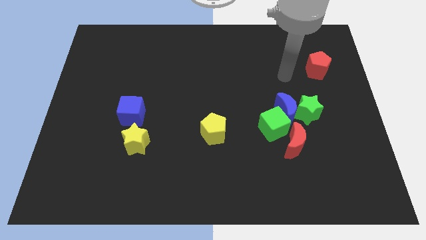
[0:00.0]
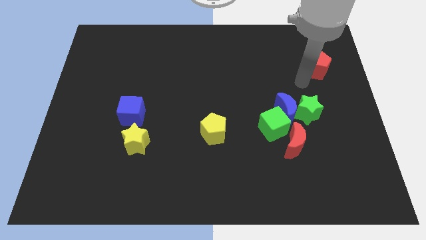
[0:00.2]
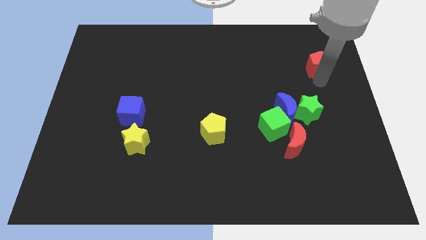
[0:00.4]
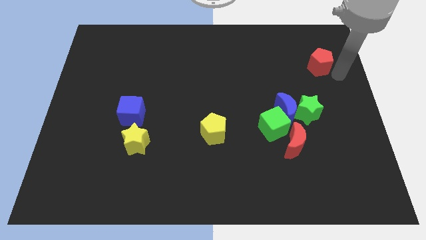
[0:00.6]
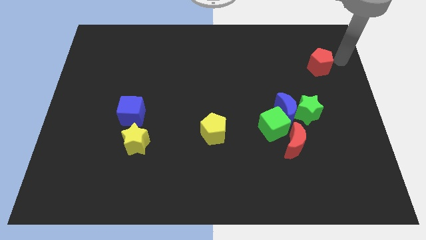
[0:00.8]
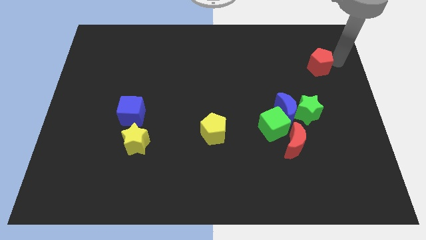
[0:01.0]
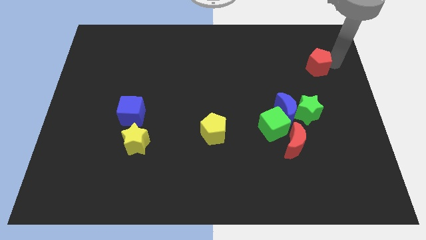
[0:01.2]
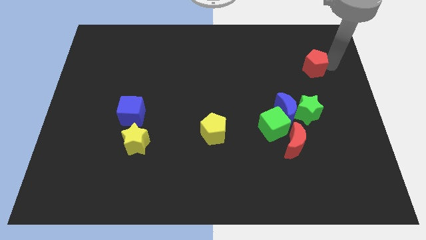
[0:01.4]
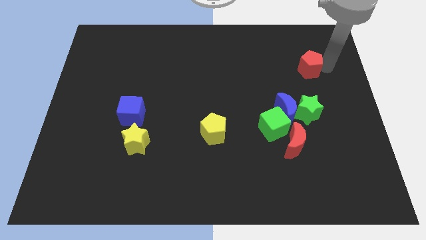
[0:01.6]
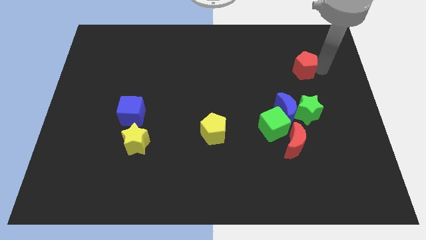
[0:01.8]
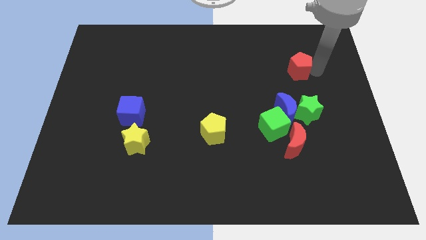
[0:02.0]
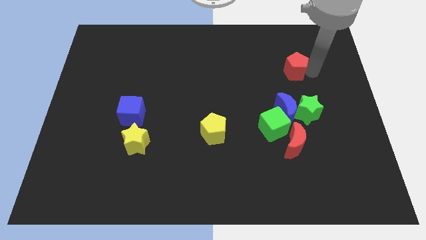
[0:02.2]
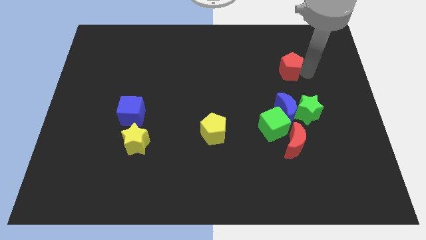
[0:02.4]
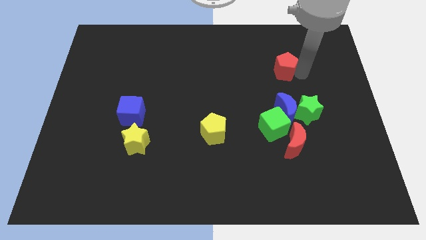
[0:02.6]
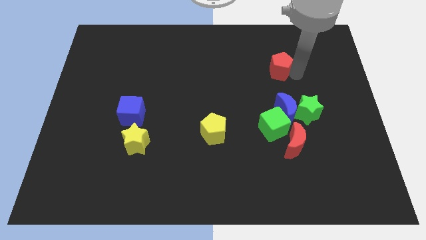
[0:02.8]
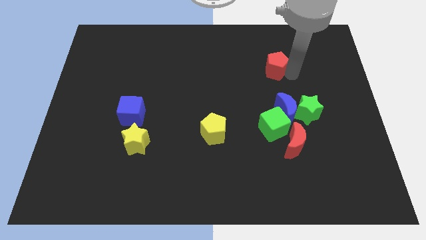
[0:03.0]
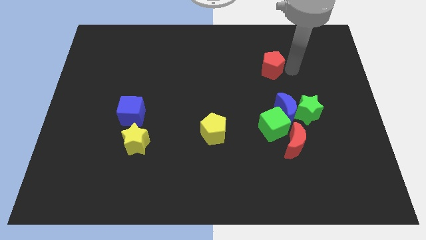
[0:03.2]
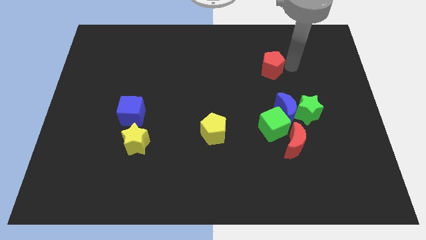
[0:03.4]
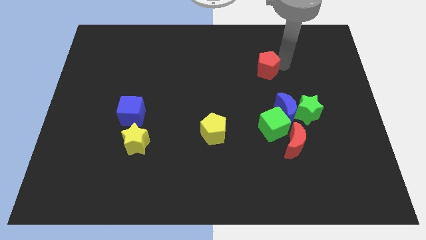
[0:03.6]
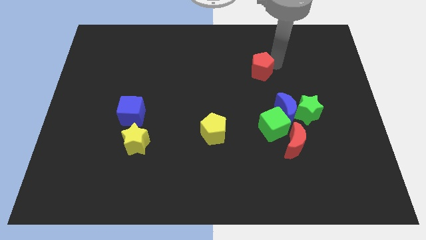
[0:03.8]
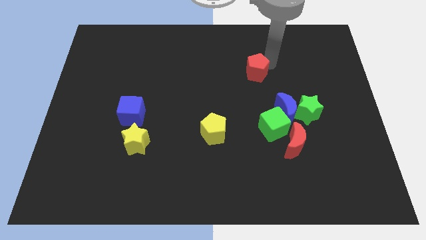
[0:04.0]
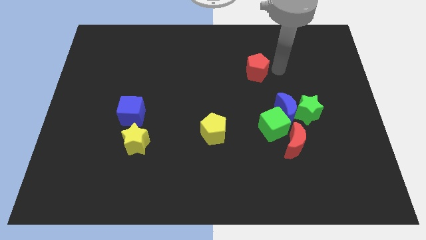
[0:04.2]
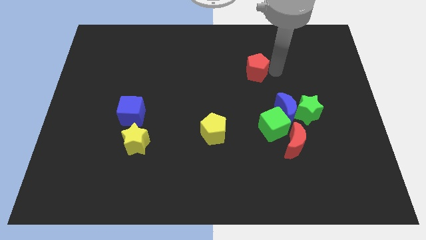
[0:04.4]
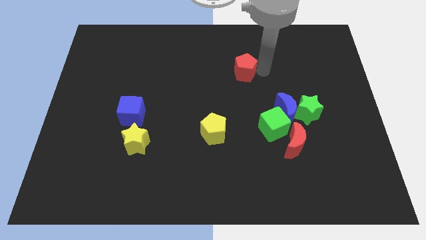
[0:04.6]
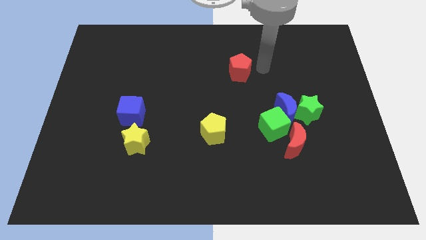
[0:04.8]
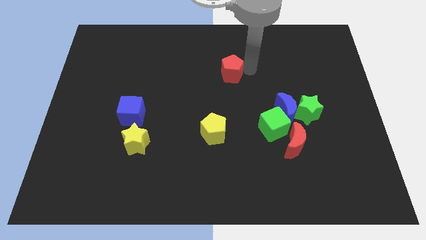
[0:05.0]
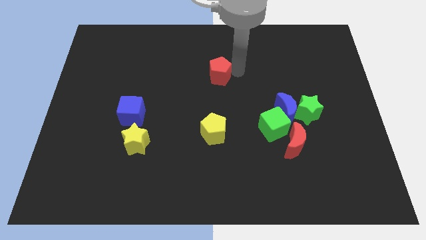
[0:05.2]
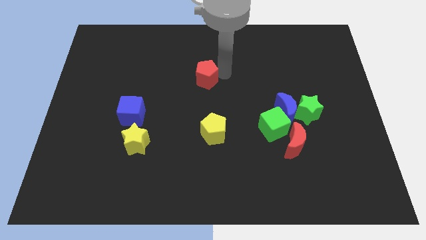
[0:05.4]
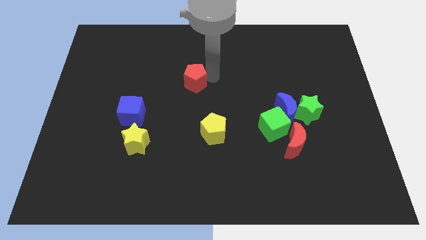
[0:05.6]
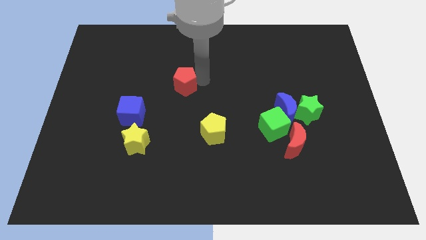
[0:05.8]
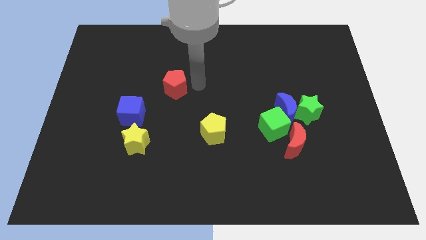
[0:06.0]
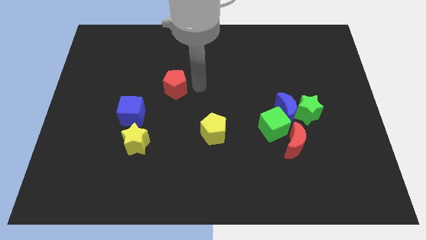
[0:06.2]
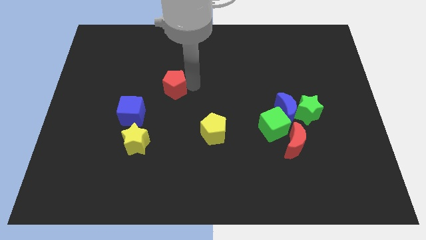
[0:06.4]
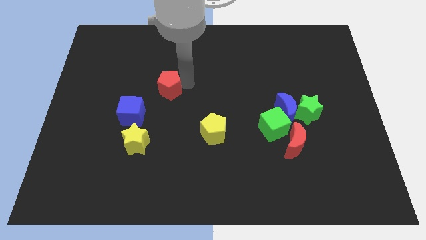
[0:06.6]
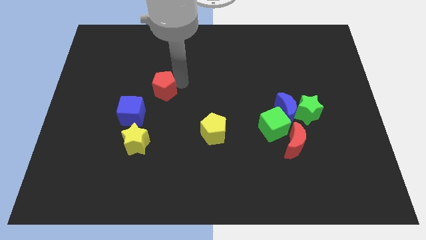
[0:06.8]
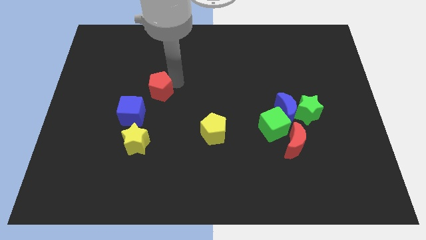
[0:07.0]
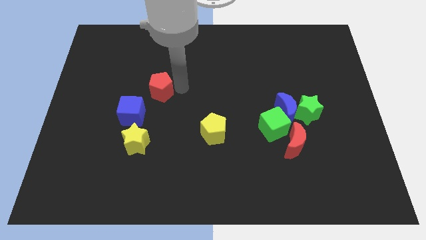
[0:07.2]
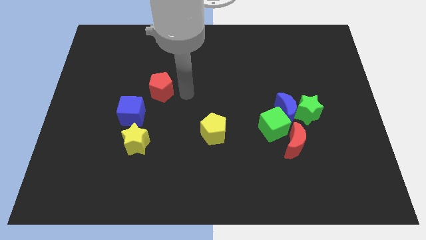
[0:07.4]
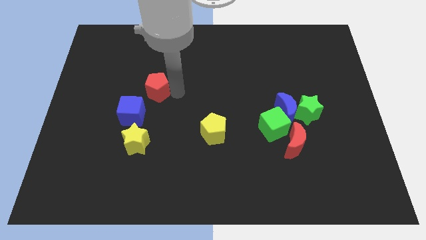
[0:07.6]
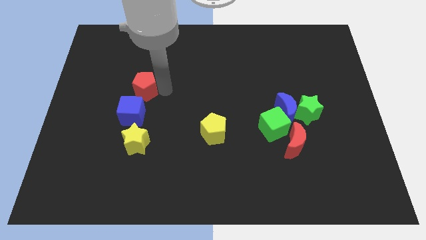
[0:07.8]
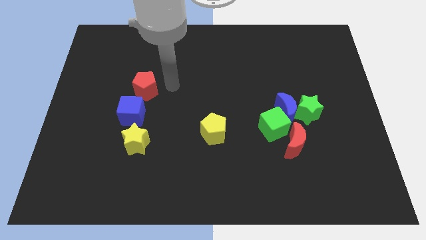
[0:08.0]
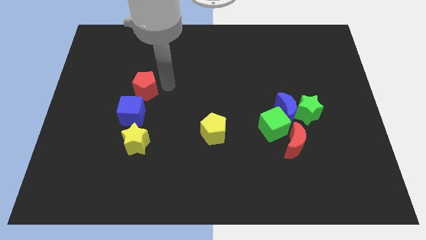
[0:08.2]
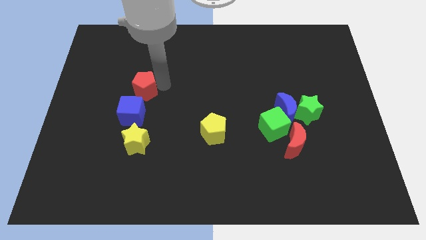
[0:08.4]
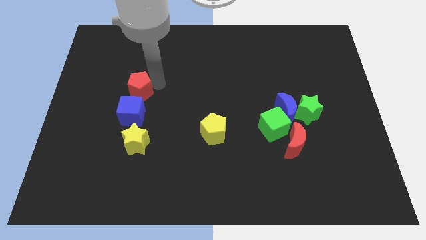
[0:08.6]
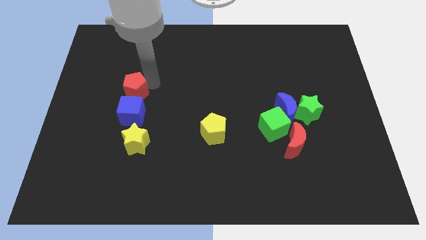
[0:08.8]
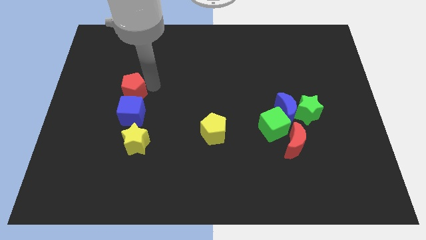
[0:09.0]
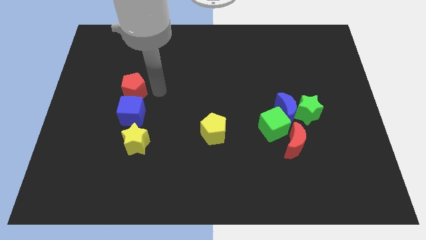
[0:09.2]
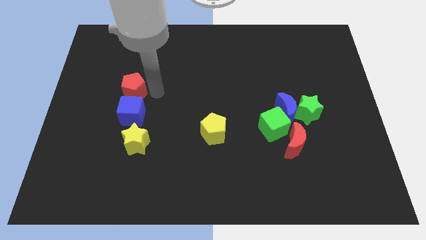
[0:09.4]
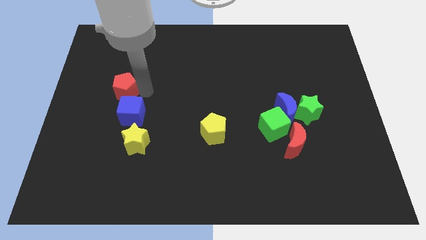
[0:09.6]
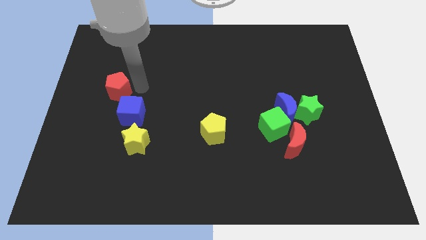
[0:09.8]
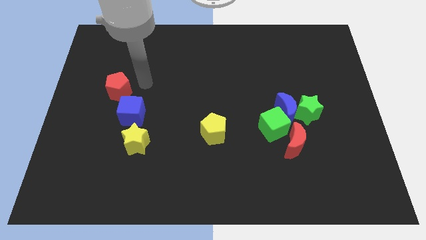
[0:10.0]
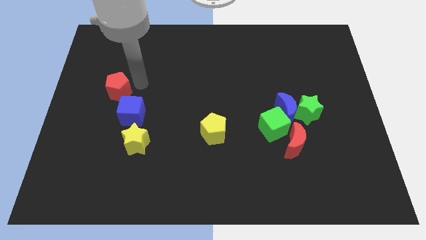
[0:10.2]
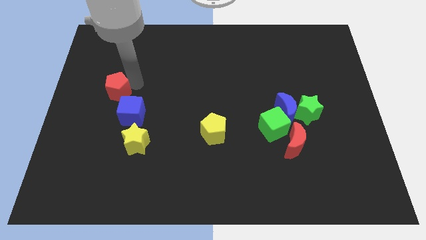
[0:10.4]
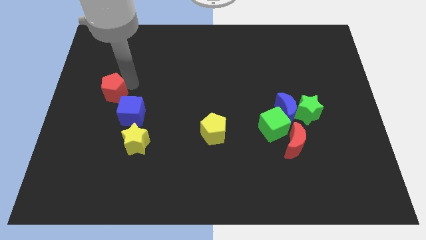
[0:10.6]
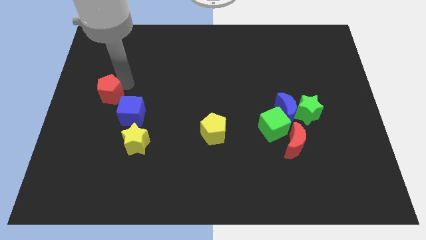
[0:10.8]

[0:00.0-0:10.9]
slide the red pentagon to the left side

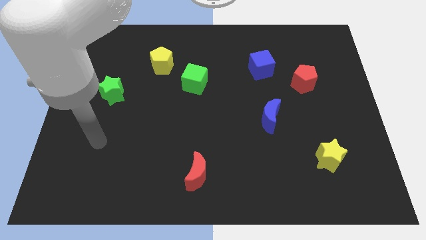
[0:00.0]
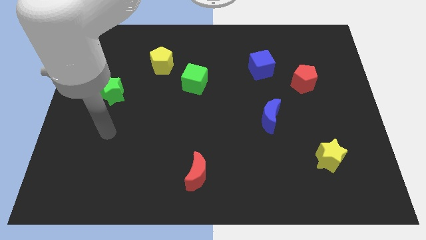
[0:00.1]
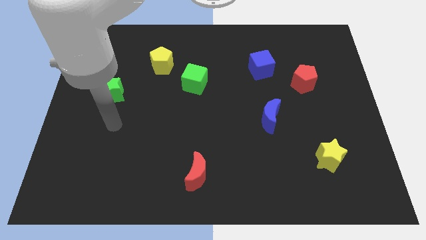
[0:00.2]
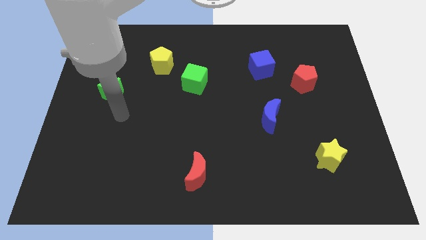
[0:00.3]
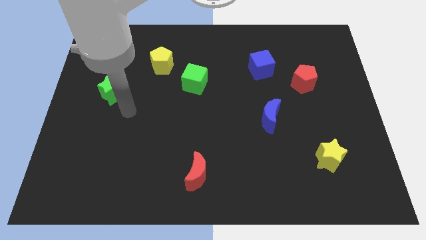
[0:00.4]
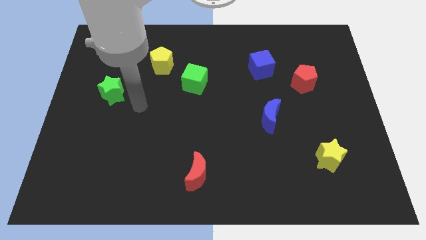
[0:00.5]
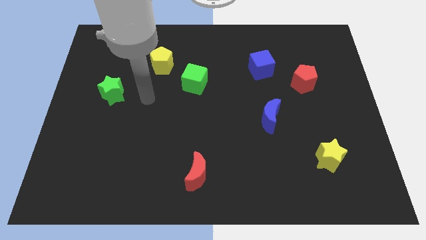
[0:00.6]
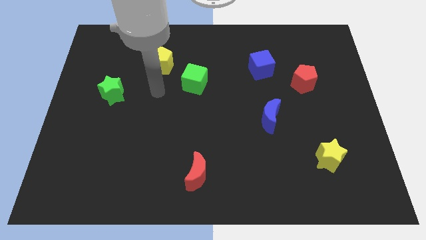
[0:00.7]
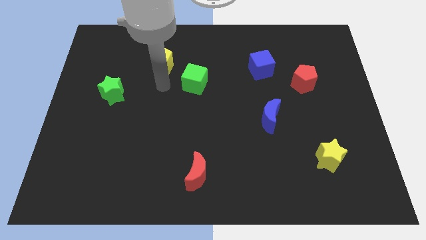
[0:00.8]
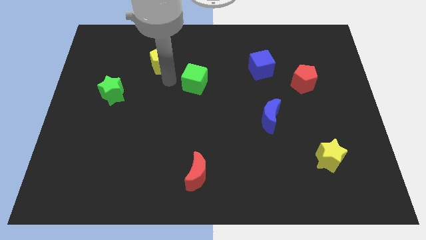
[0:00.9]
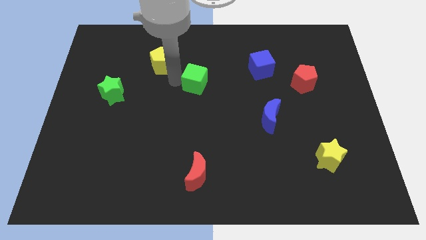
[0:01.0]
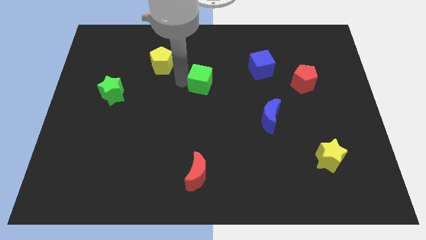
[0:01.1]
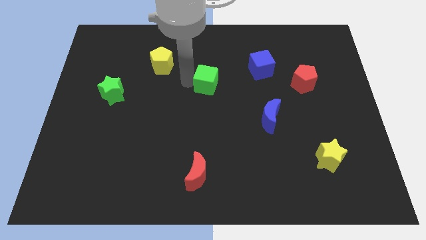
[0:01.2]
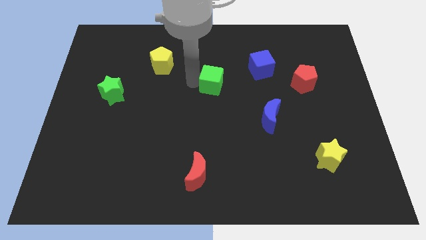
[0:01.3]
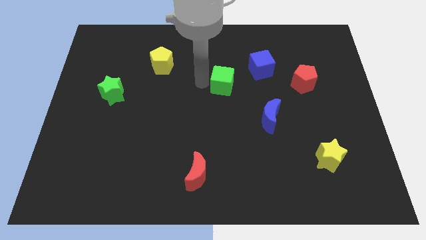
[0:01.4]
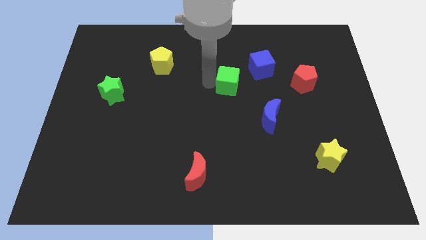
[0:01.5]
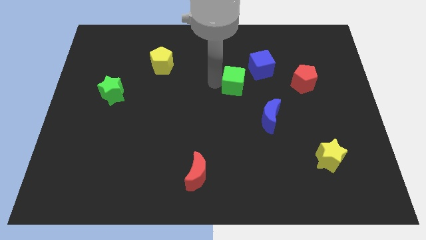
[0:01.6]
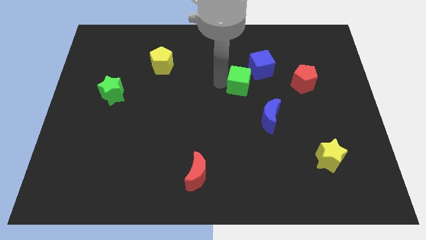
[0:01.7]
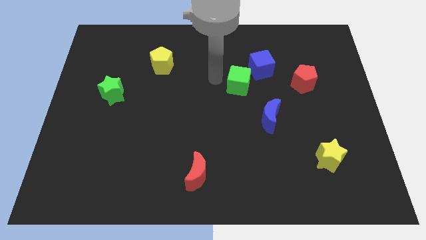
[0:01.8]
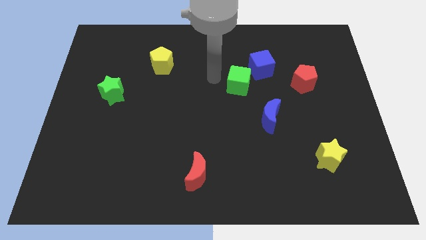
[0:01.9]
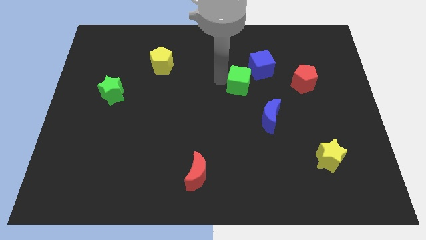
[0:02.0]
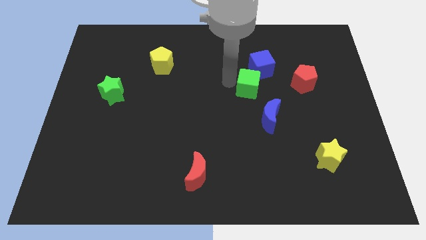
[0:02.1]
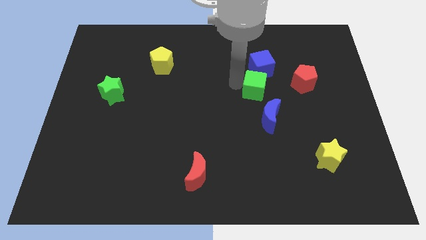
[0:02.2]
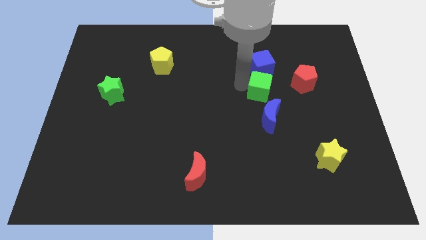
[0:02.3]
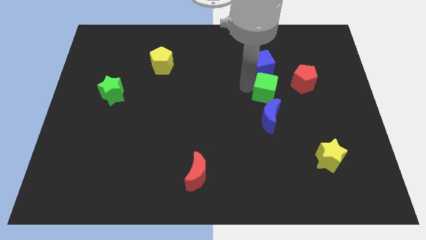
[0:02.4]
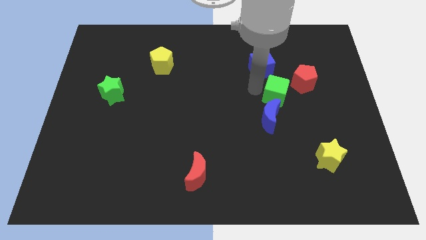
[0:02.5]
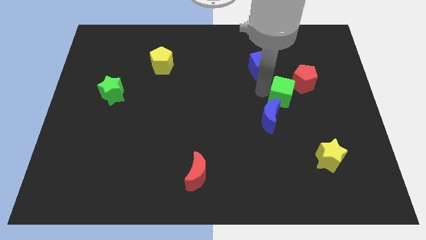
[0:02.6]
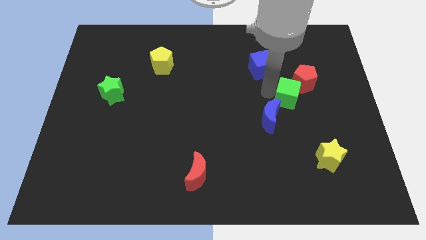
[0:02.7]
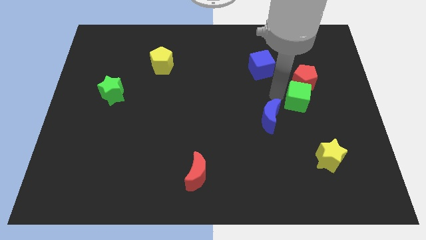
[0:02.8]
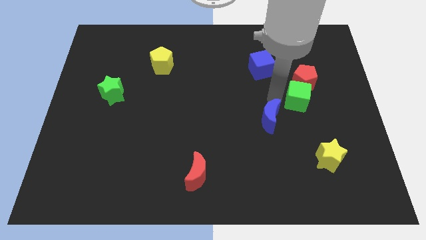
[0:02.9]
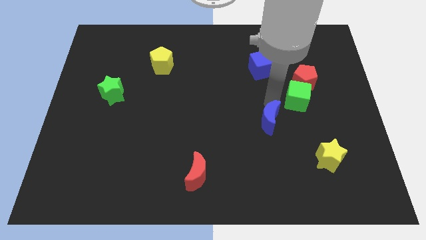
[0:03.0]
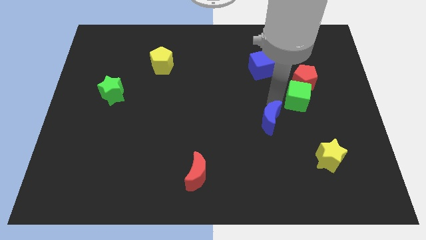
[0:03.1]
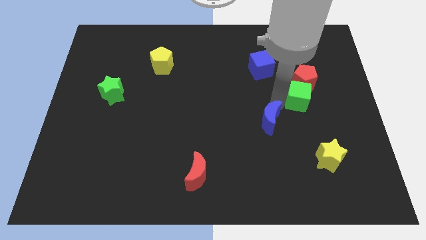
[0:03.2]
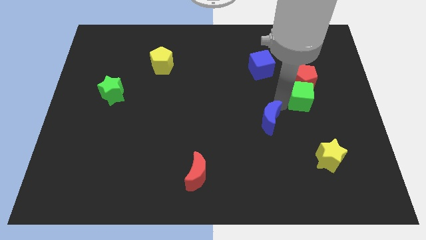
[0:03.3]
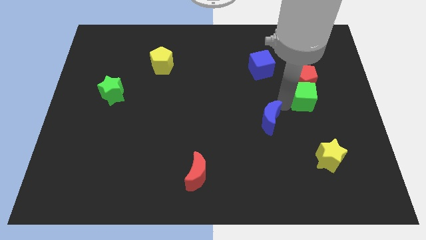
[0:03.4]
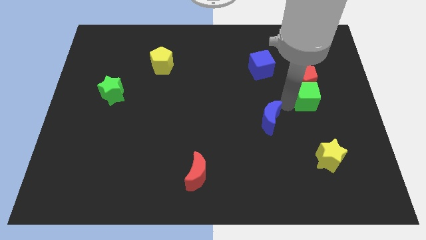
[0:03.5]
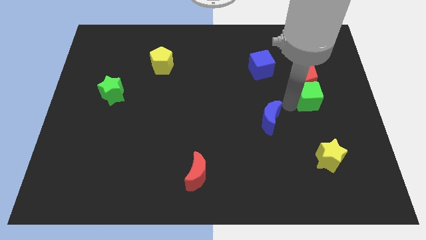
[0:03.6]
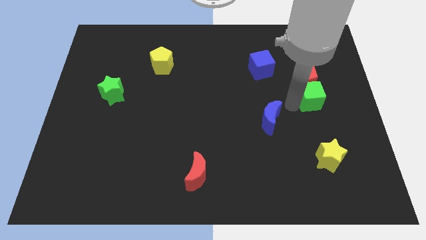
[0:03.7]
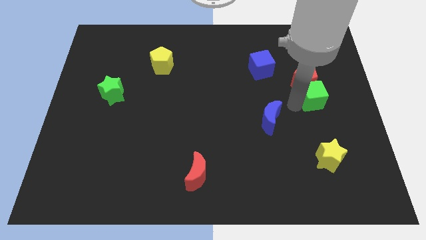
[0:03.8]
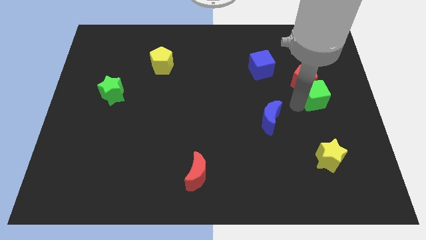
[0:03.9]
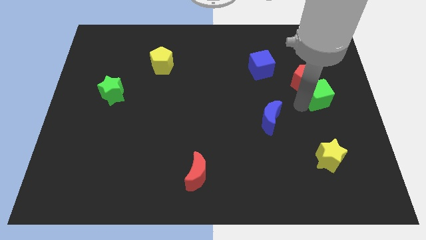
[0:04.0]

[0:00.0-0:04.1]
put the green cube to the right side
